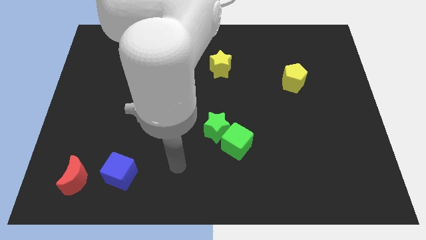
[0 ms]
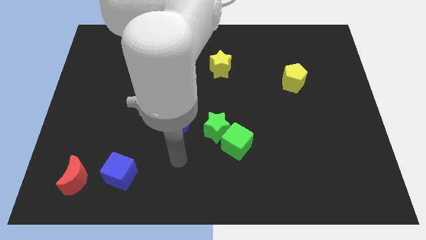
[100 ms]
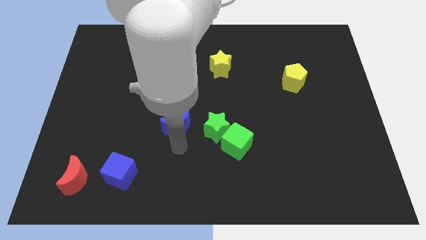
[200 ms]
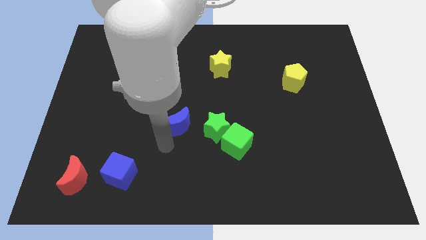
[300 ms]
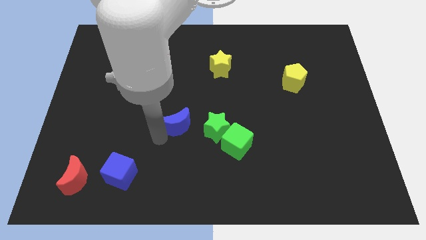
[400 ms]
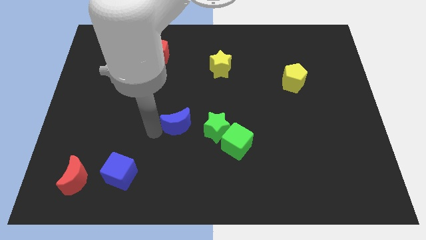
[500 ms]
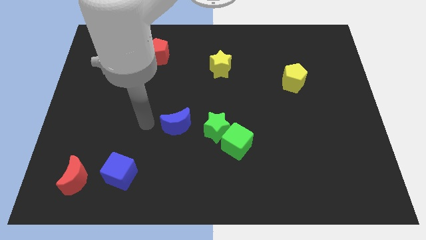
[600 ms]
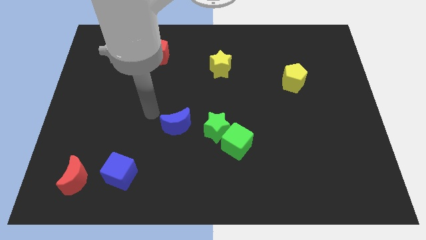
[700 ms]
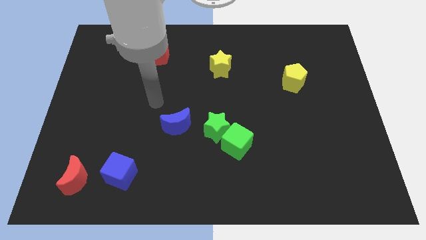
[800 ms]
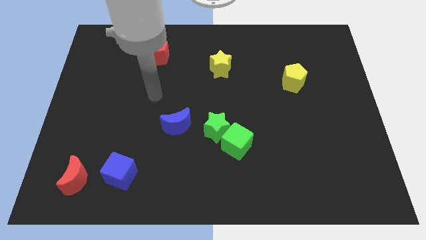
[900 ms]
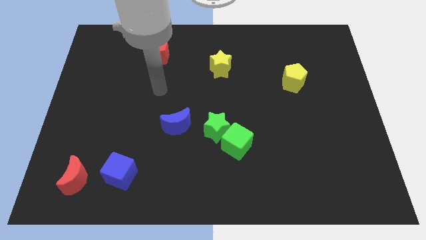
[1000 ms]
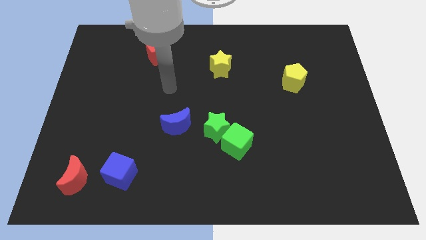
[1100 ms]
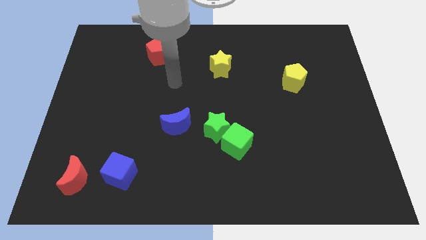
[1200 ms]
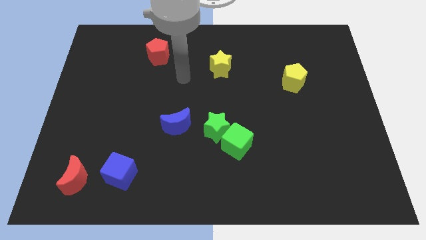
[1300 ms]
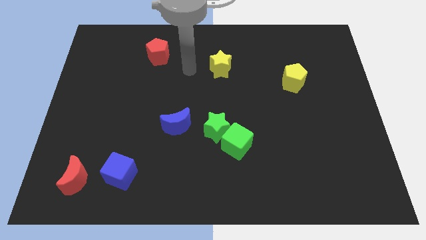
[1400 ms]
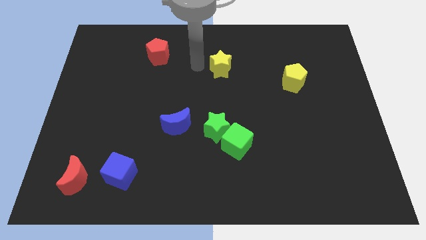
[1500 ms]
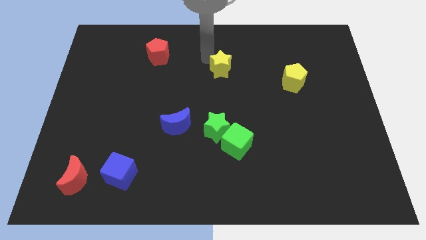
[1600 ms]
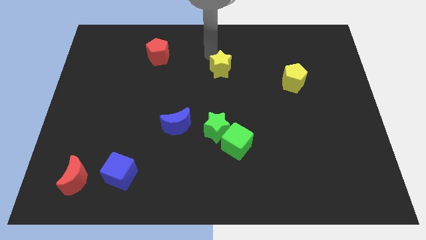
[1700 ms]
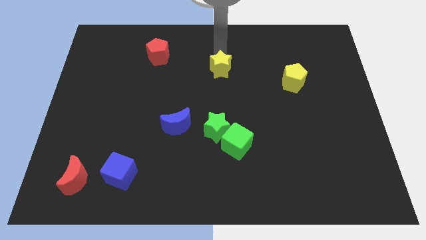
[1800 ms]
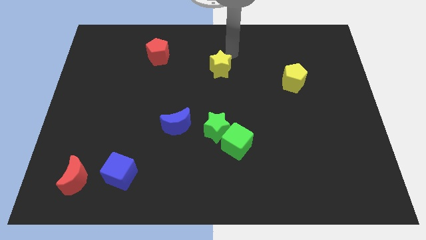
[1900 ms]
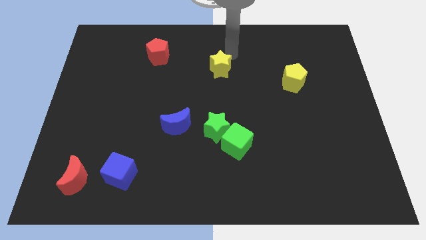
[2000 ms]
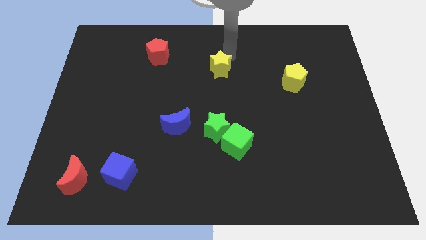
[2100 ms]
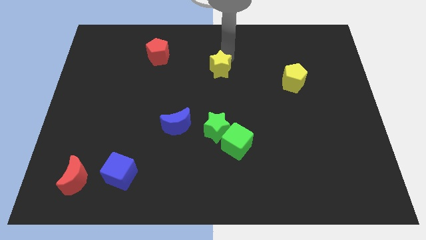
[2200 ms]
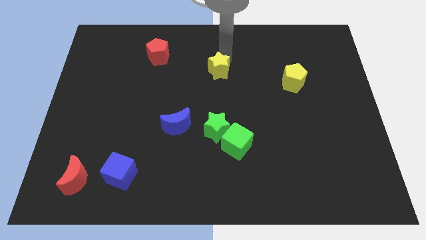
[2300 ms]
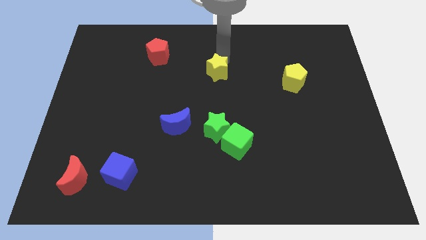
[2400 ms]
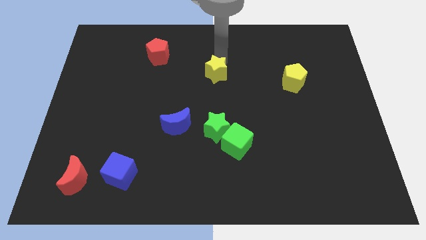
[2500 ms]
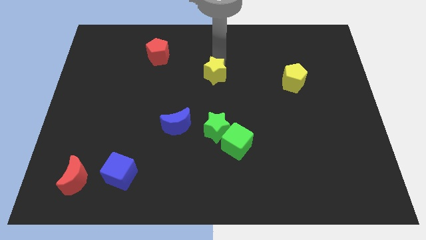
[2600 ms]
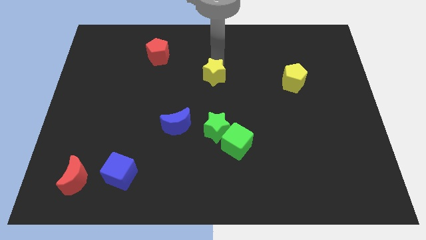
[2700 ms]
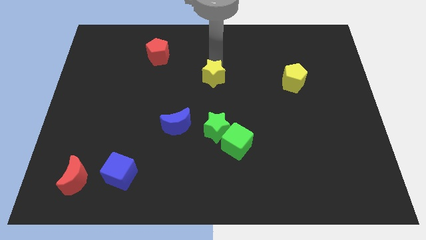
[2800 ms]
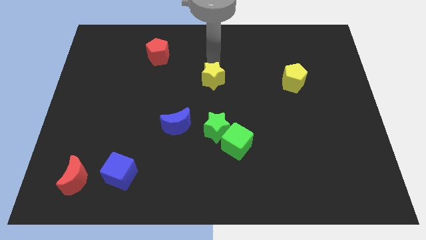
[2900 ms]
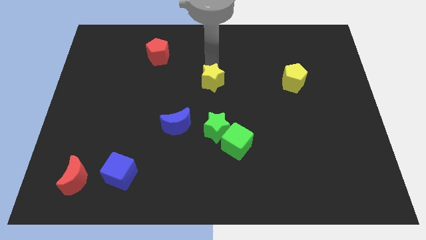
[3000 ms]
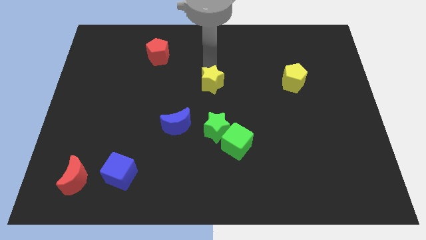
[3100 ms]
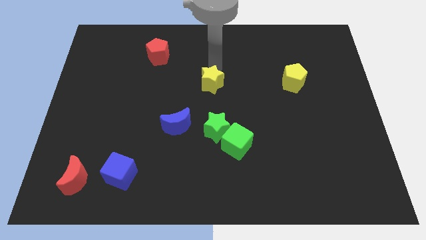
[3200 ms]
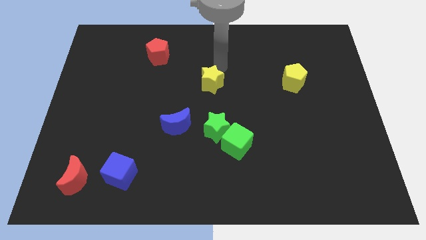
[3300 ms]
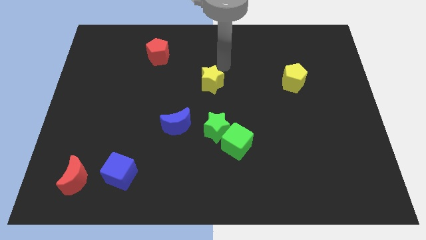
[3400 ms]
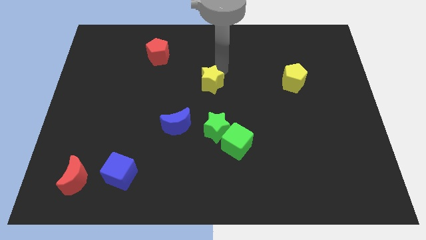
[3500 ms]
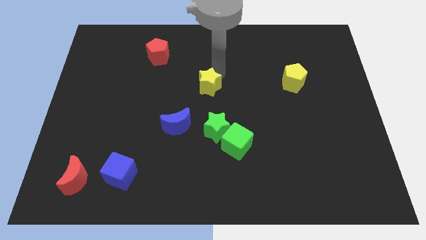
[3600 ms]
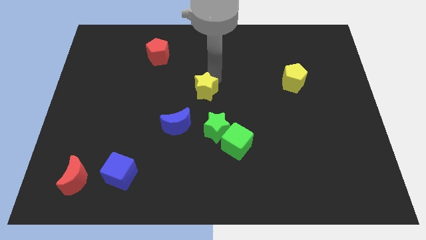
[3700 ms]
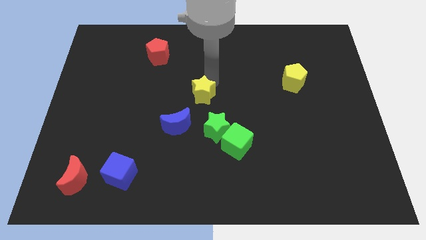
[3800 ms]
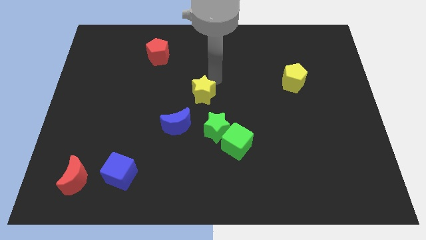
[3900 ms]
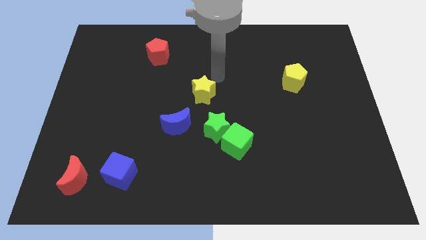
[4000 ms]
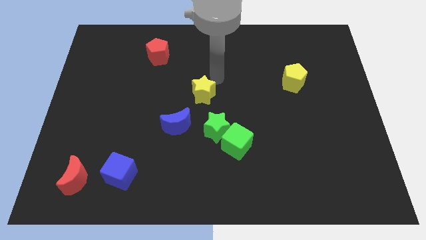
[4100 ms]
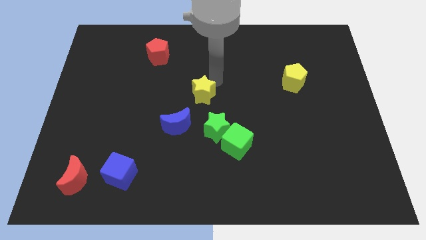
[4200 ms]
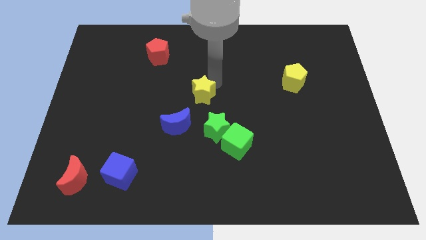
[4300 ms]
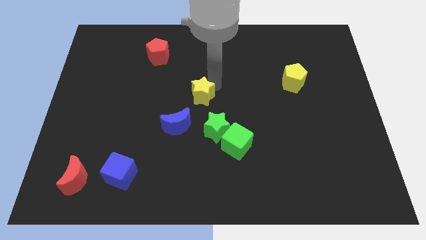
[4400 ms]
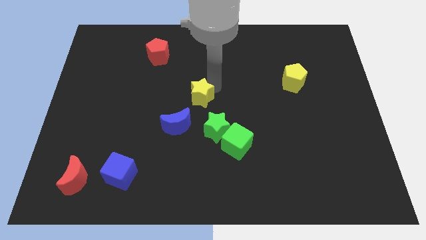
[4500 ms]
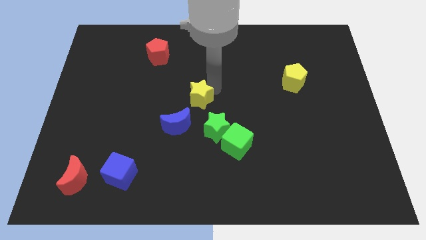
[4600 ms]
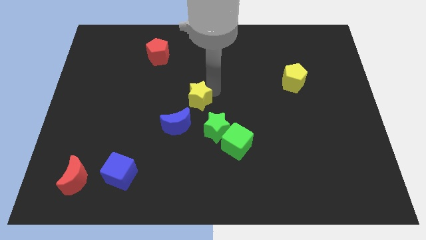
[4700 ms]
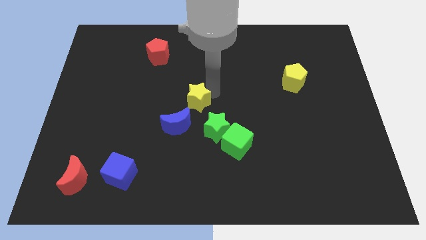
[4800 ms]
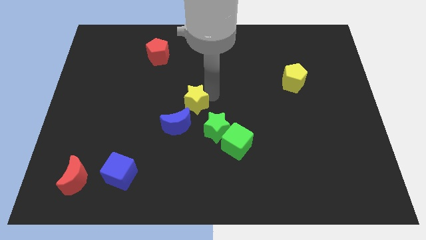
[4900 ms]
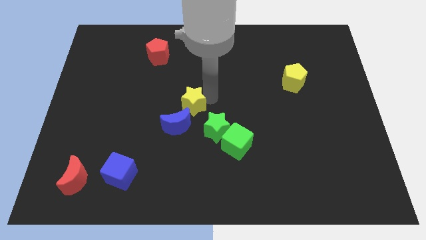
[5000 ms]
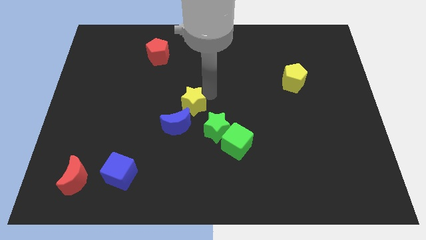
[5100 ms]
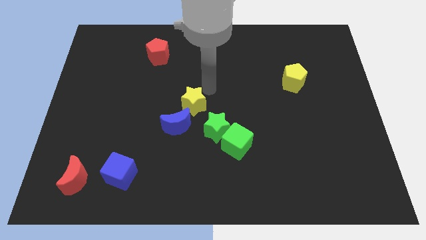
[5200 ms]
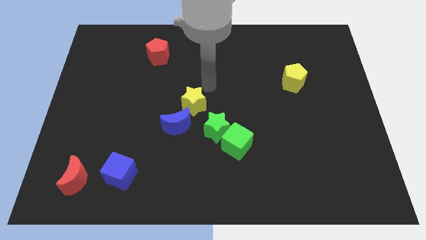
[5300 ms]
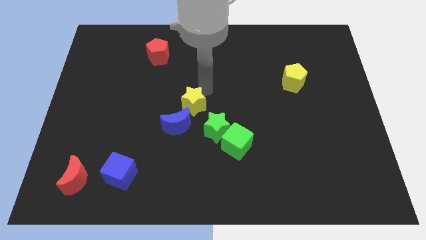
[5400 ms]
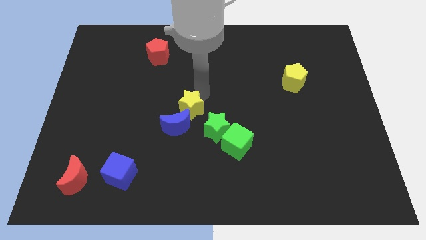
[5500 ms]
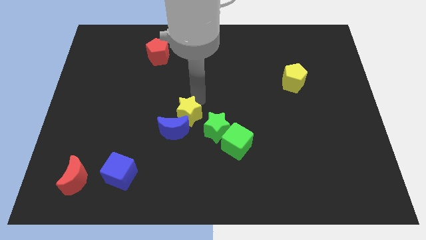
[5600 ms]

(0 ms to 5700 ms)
move the yellow star close to the blue moon

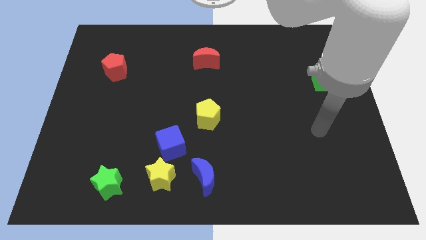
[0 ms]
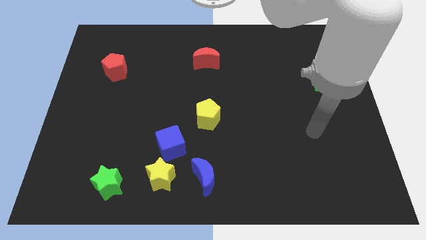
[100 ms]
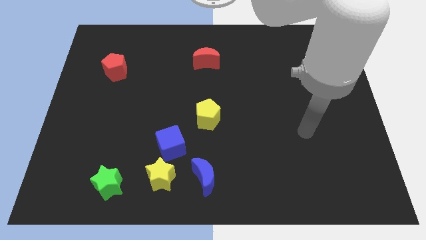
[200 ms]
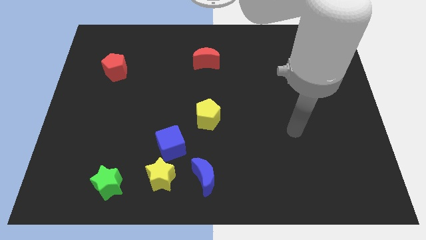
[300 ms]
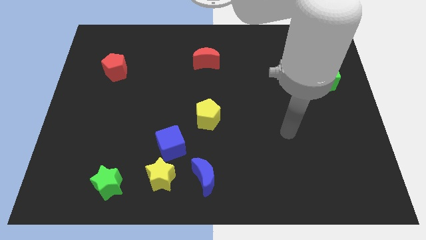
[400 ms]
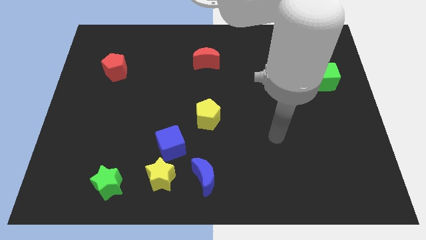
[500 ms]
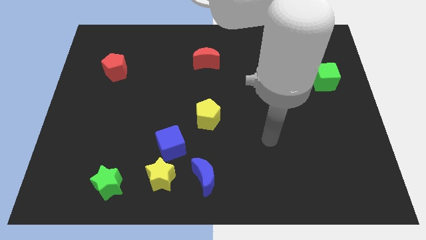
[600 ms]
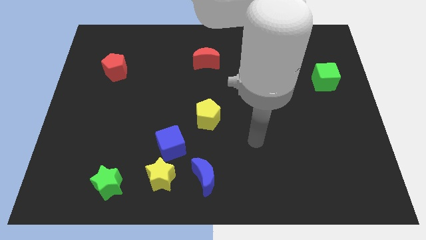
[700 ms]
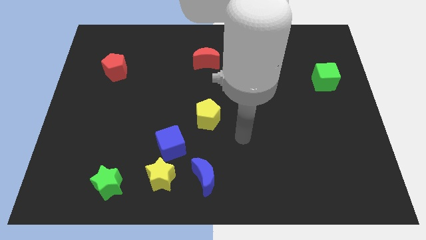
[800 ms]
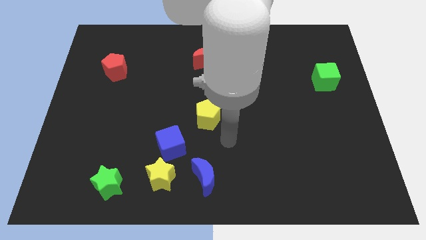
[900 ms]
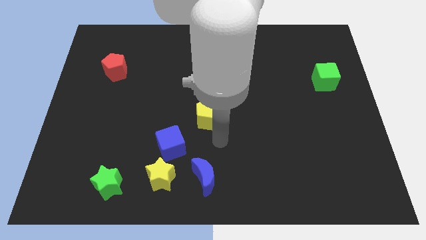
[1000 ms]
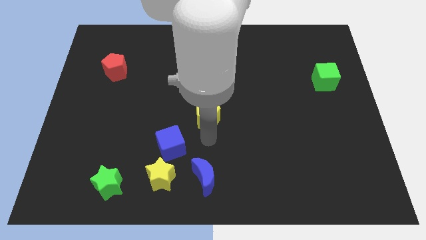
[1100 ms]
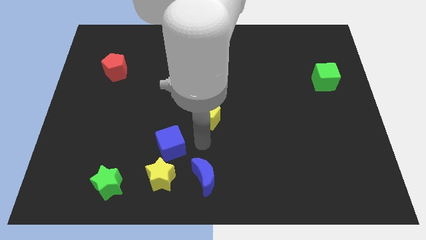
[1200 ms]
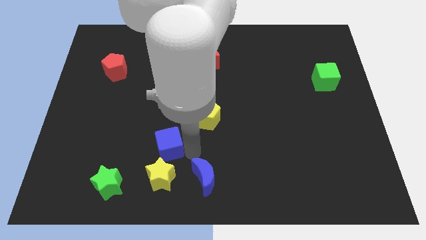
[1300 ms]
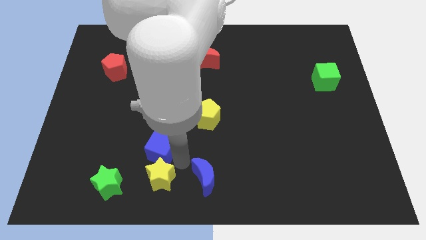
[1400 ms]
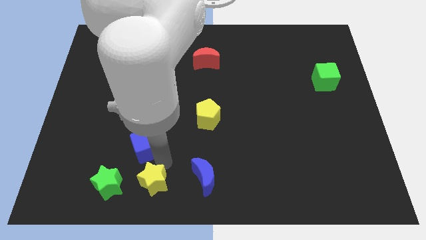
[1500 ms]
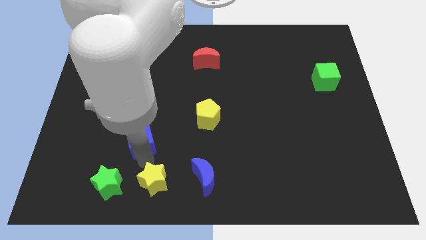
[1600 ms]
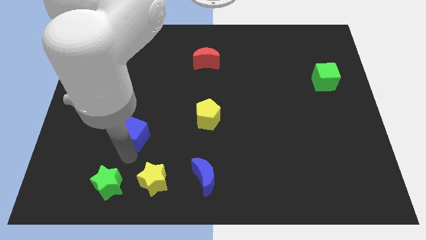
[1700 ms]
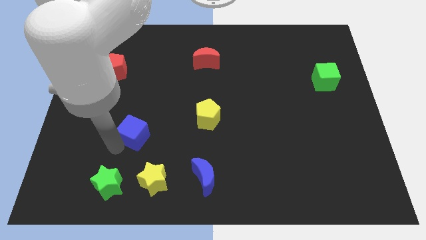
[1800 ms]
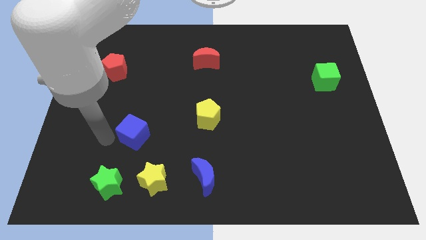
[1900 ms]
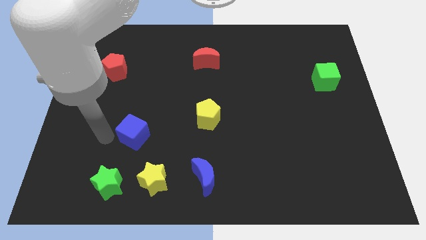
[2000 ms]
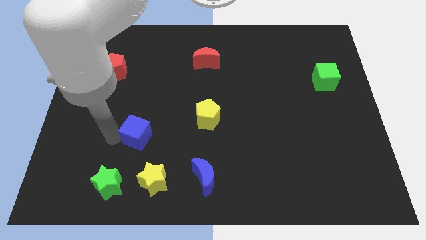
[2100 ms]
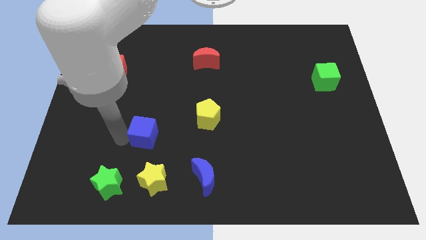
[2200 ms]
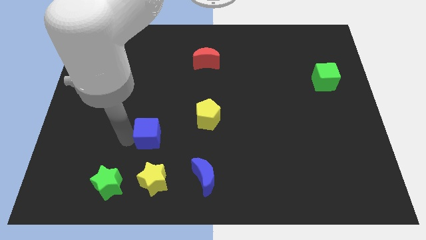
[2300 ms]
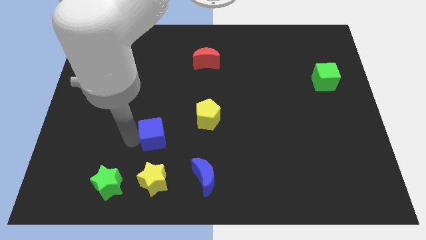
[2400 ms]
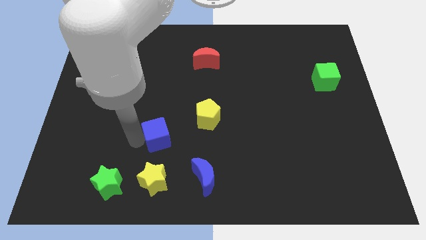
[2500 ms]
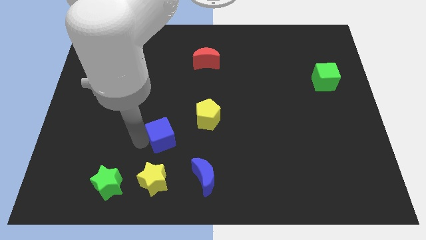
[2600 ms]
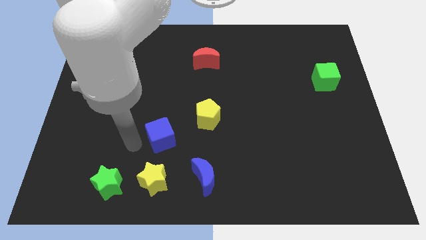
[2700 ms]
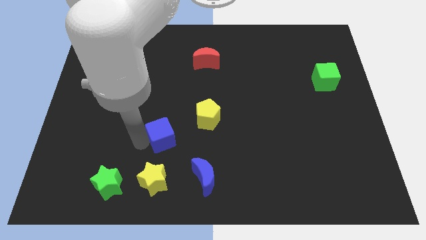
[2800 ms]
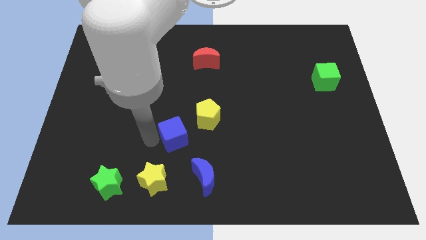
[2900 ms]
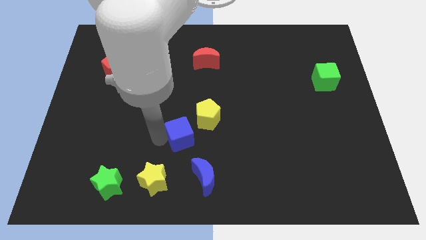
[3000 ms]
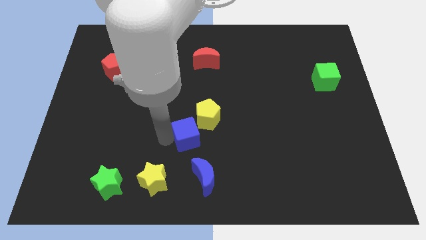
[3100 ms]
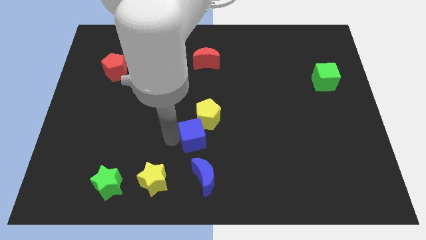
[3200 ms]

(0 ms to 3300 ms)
move the blue cube next to the yellow pentagon
